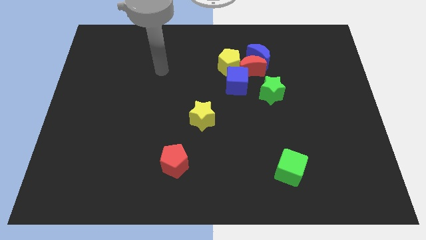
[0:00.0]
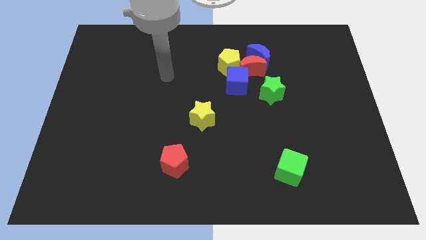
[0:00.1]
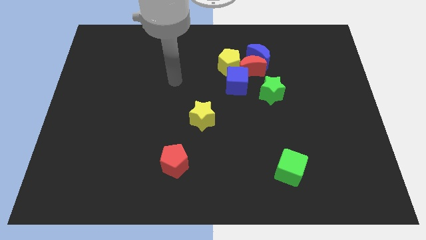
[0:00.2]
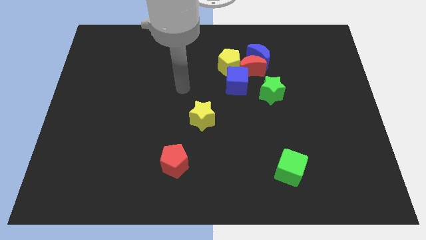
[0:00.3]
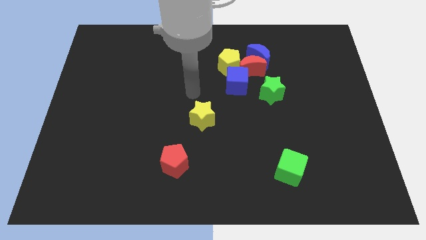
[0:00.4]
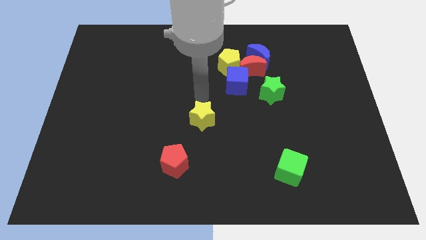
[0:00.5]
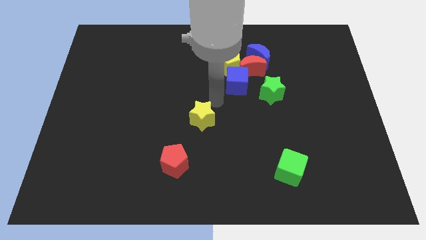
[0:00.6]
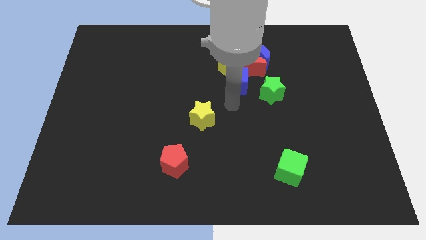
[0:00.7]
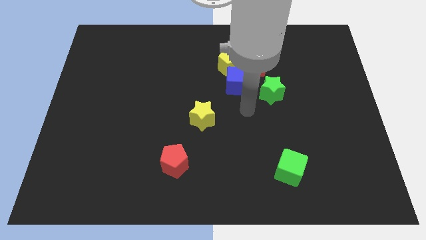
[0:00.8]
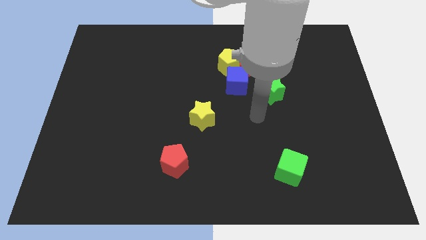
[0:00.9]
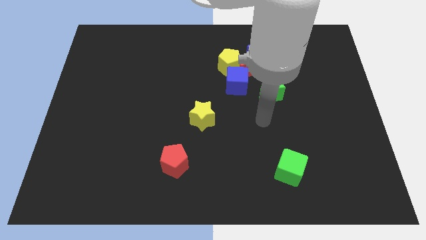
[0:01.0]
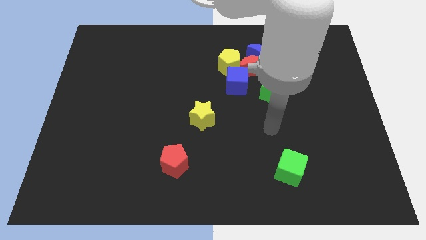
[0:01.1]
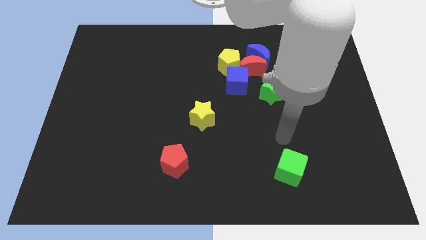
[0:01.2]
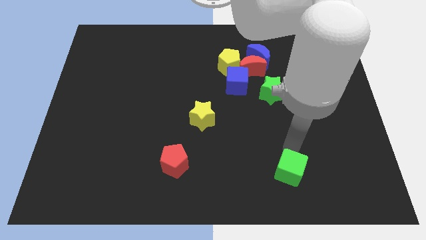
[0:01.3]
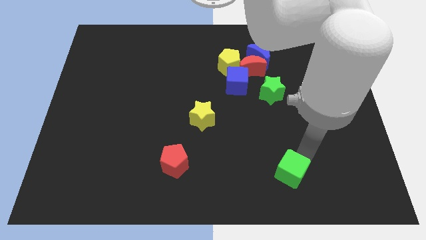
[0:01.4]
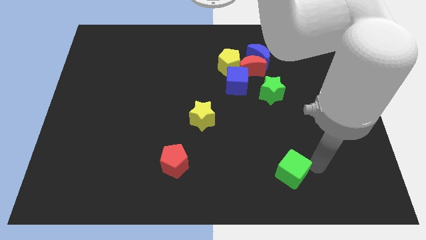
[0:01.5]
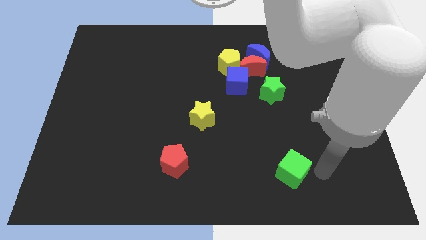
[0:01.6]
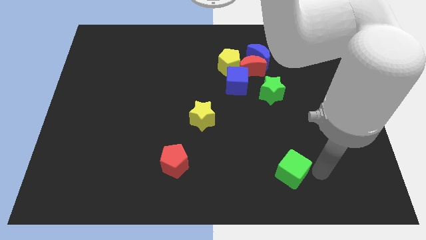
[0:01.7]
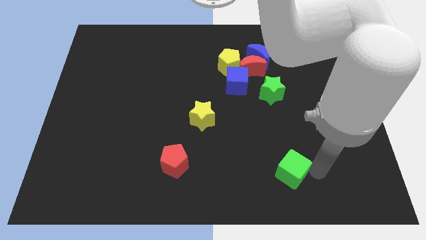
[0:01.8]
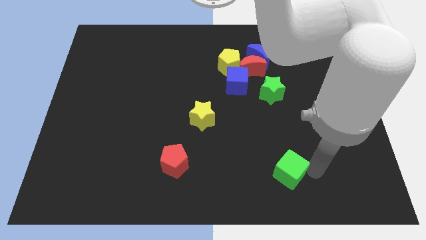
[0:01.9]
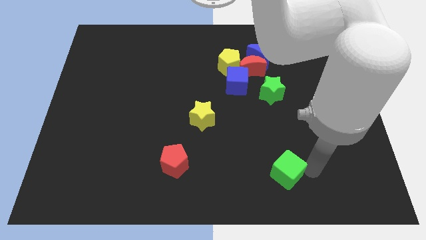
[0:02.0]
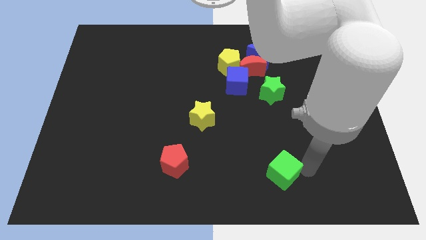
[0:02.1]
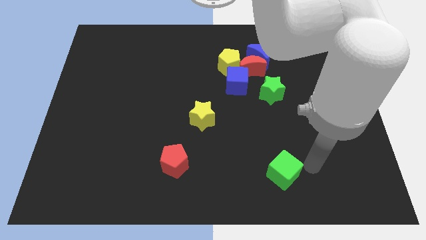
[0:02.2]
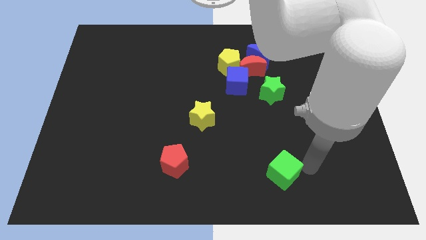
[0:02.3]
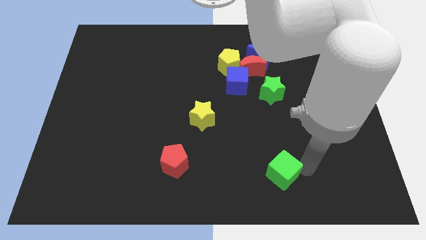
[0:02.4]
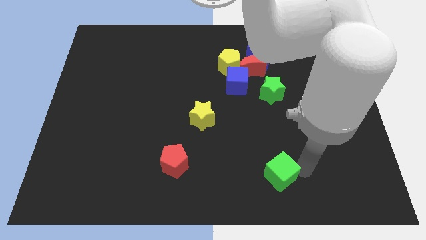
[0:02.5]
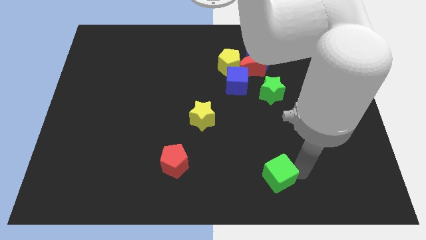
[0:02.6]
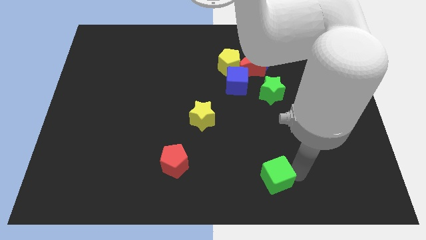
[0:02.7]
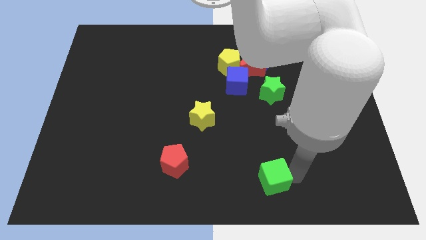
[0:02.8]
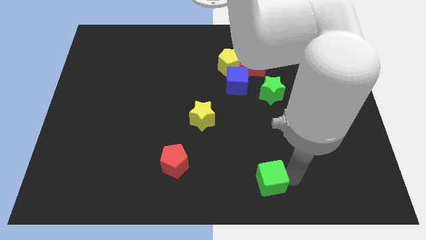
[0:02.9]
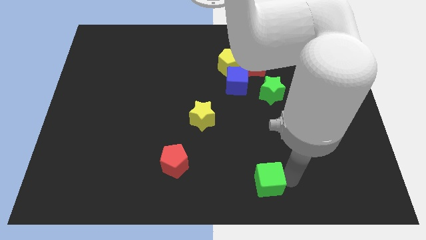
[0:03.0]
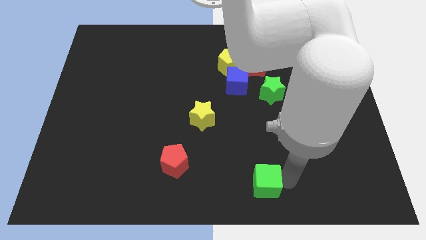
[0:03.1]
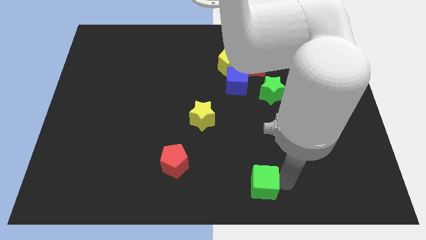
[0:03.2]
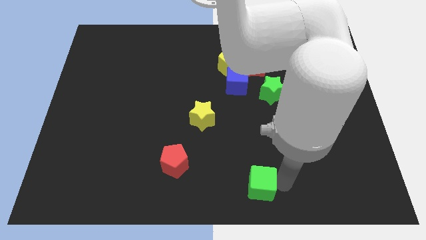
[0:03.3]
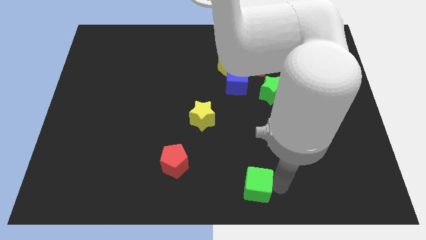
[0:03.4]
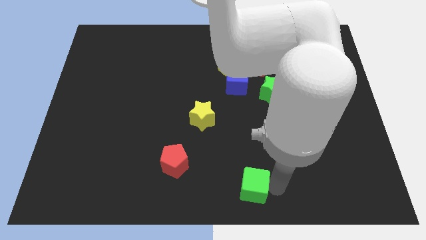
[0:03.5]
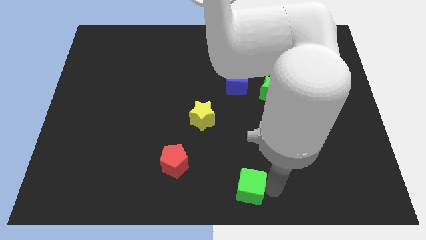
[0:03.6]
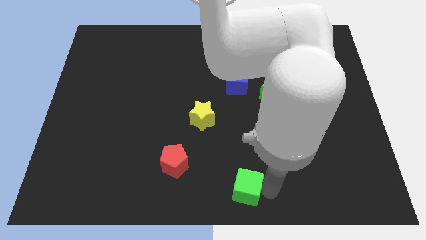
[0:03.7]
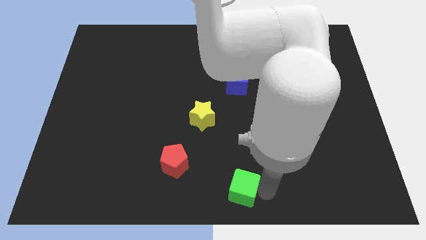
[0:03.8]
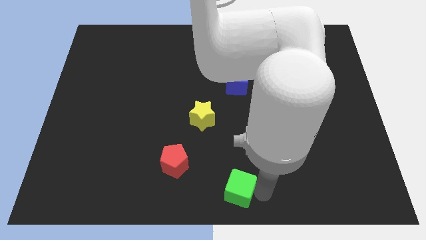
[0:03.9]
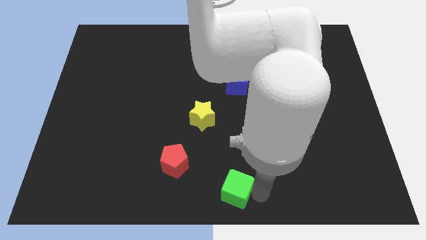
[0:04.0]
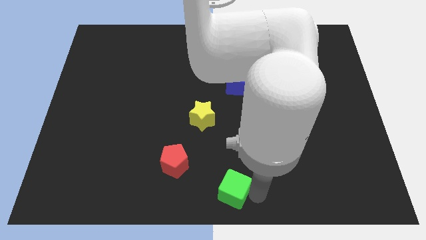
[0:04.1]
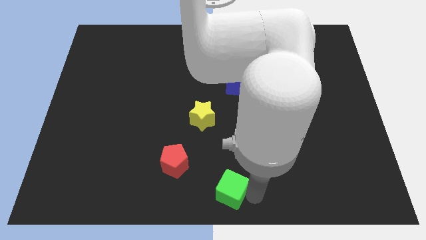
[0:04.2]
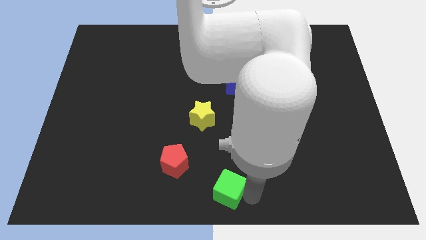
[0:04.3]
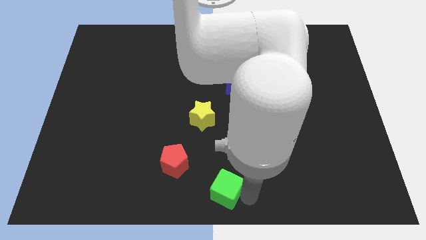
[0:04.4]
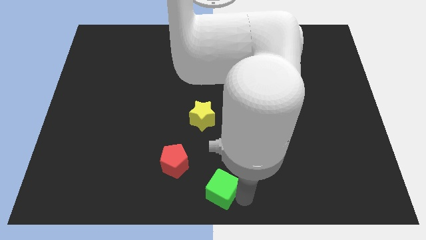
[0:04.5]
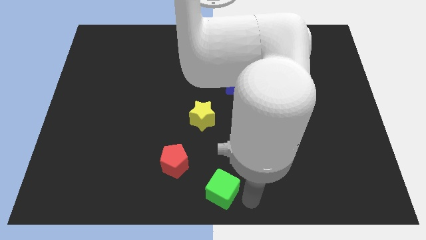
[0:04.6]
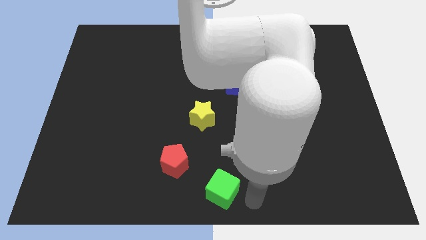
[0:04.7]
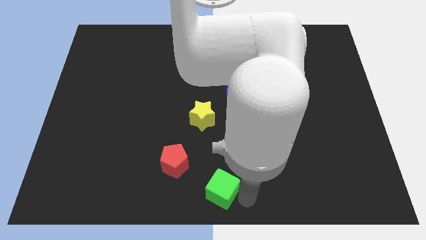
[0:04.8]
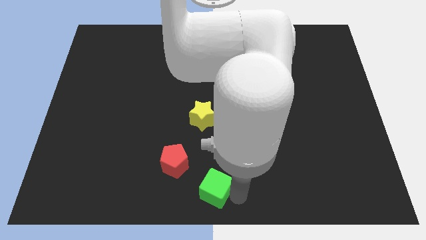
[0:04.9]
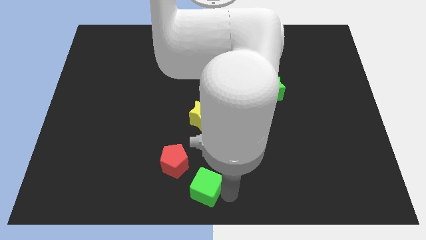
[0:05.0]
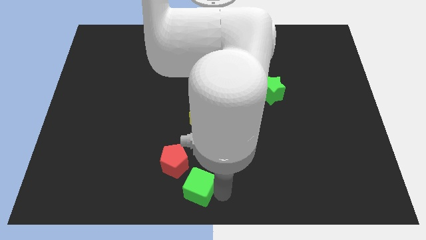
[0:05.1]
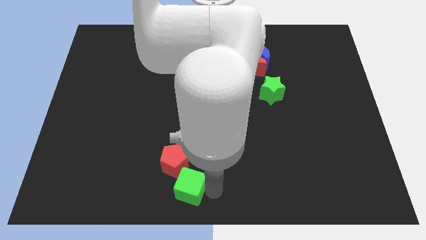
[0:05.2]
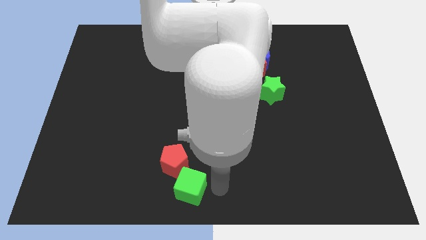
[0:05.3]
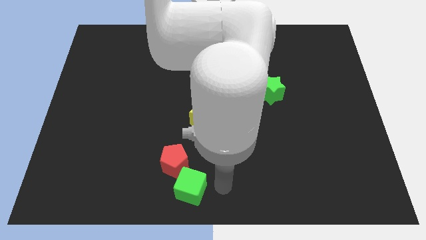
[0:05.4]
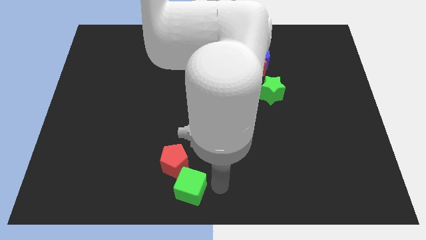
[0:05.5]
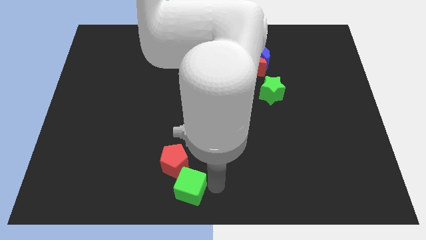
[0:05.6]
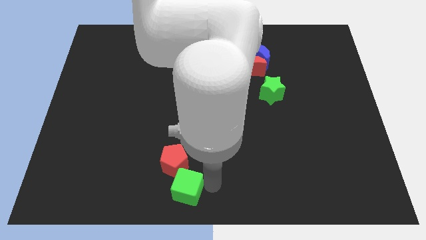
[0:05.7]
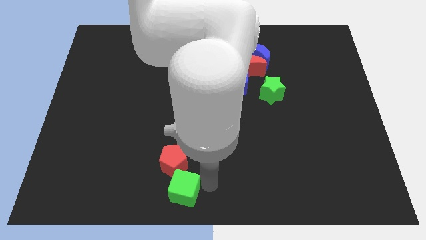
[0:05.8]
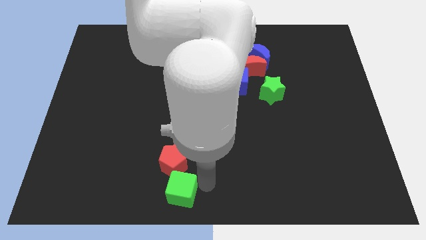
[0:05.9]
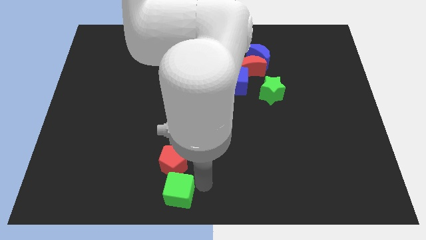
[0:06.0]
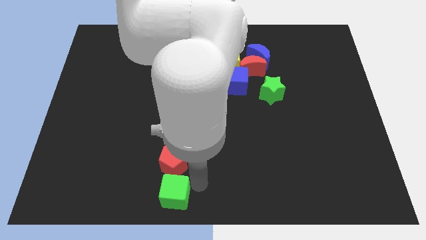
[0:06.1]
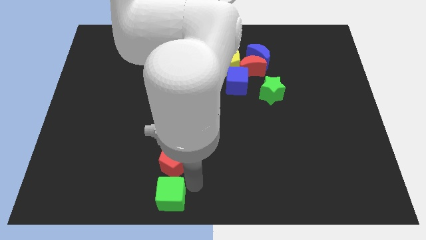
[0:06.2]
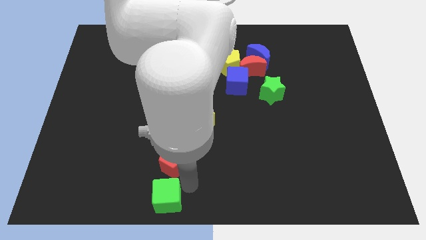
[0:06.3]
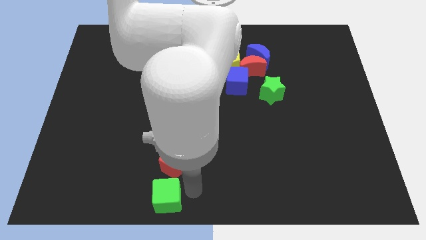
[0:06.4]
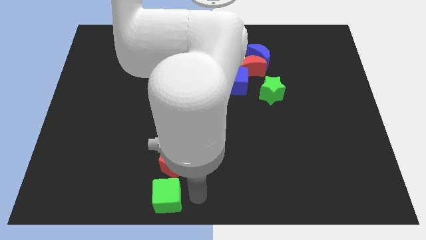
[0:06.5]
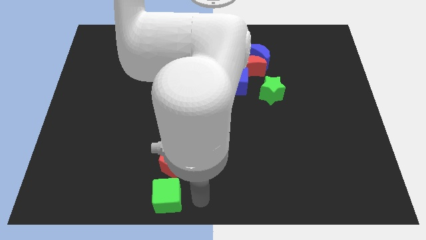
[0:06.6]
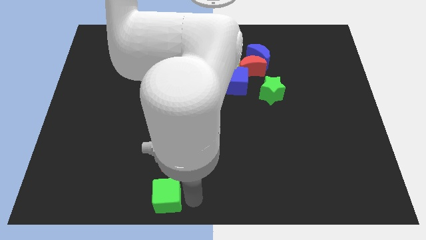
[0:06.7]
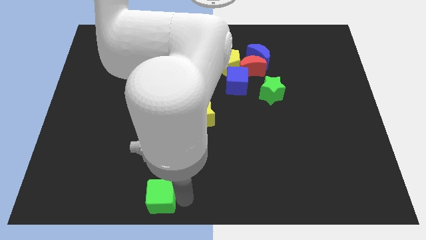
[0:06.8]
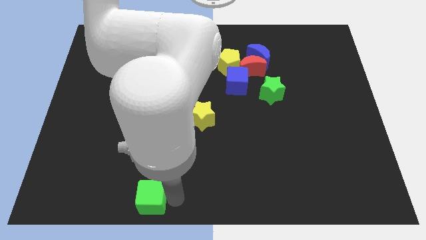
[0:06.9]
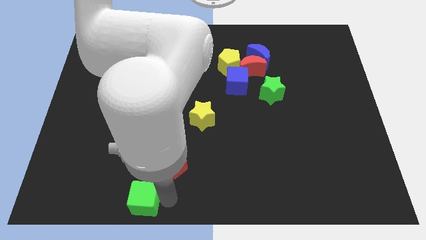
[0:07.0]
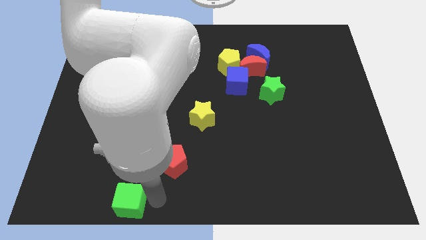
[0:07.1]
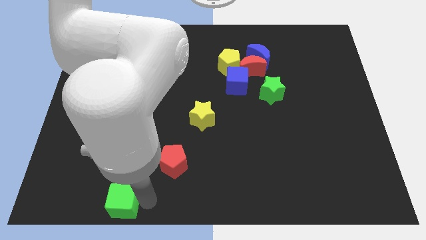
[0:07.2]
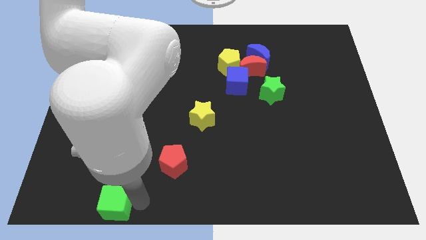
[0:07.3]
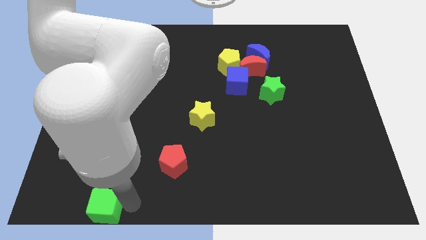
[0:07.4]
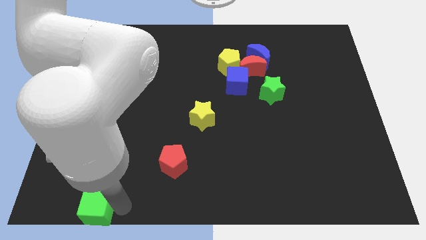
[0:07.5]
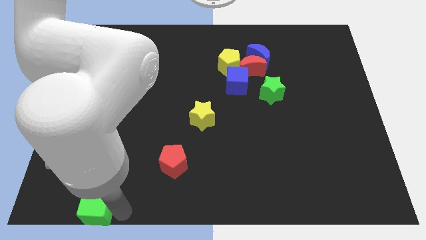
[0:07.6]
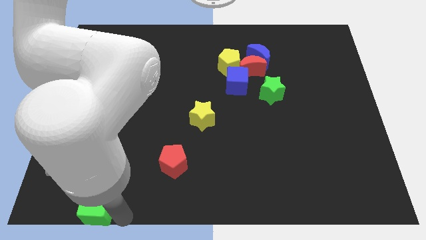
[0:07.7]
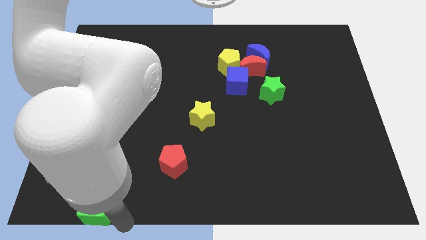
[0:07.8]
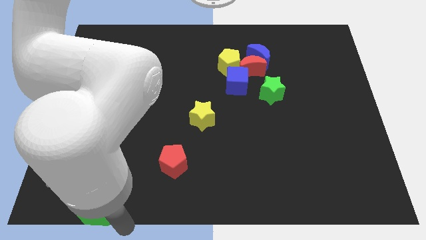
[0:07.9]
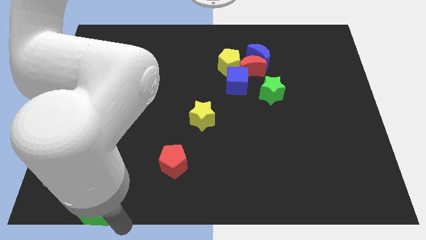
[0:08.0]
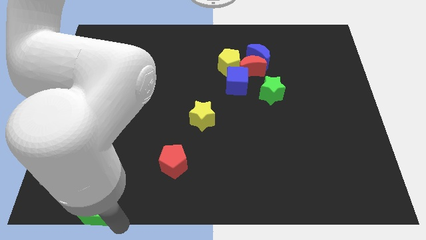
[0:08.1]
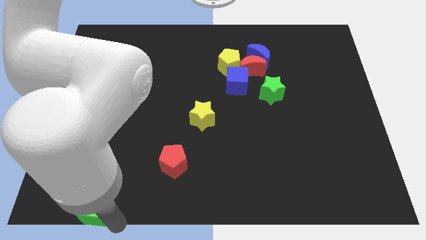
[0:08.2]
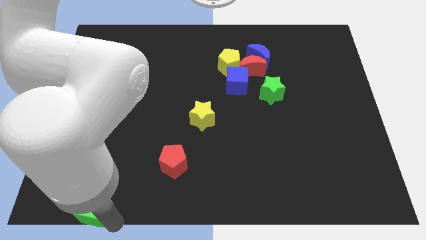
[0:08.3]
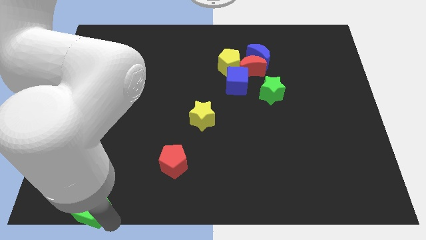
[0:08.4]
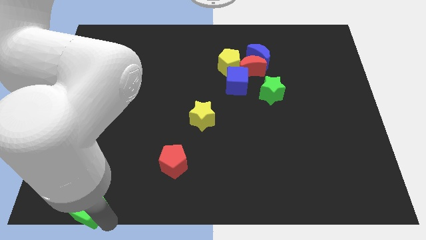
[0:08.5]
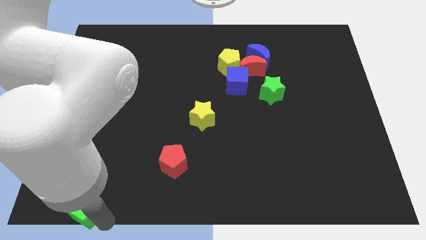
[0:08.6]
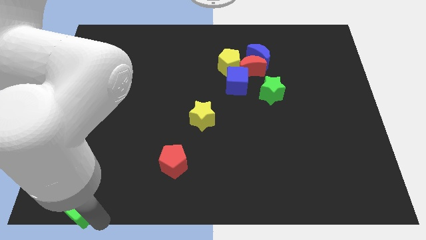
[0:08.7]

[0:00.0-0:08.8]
move the green cube to the lower left corner
